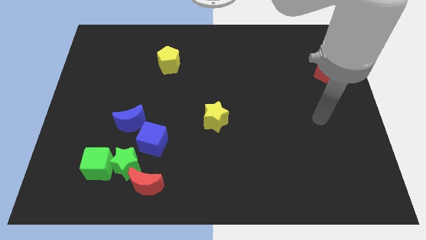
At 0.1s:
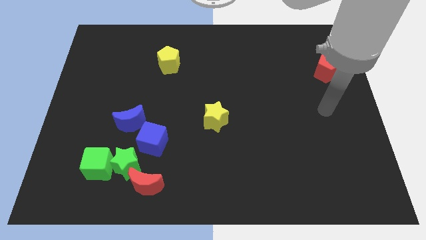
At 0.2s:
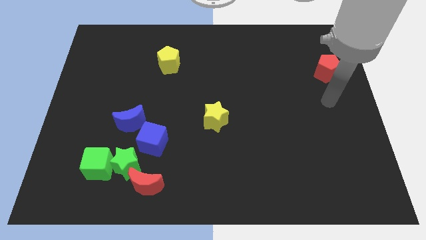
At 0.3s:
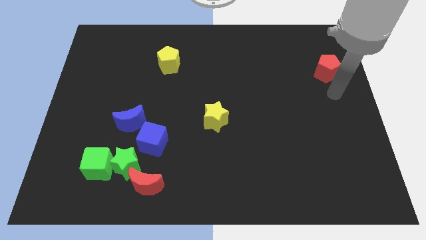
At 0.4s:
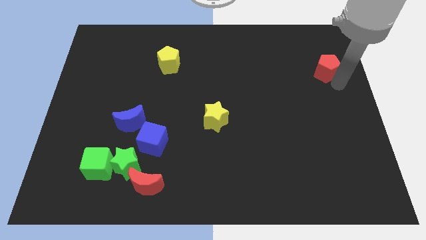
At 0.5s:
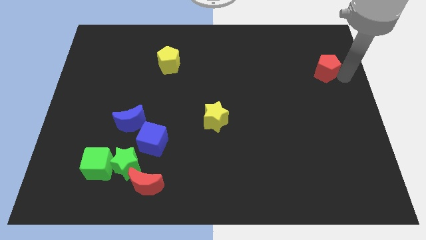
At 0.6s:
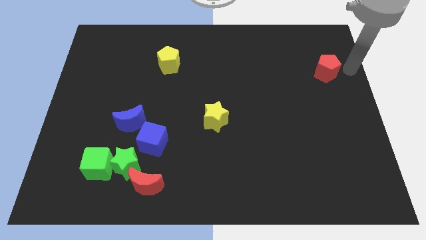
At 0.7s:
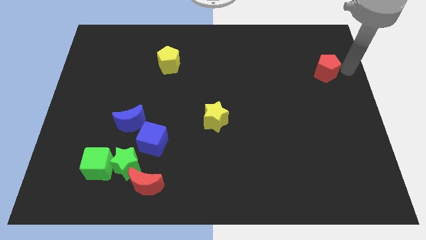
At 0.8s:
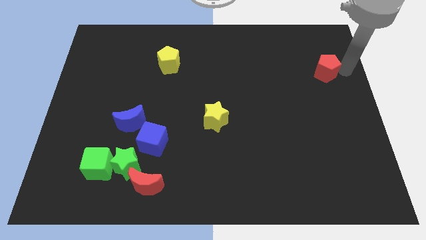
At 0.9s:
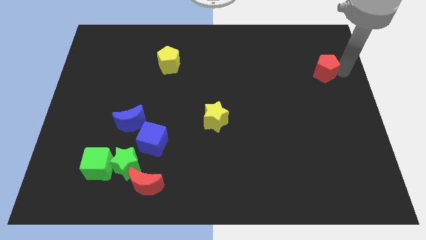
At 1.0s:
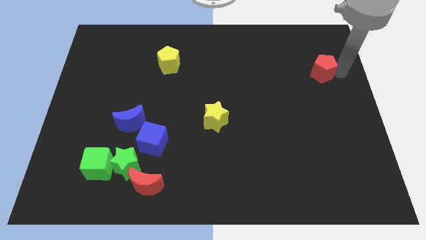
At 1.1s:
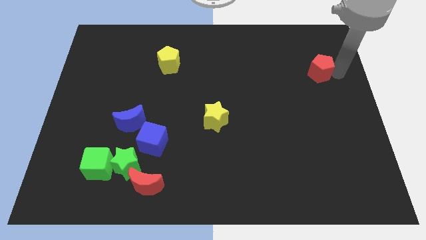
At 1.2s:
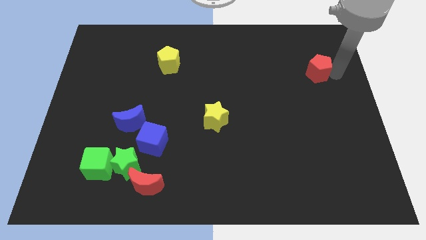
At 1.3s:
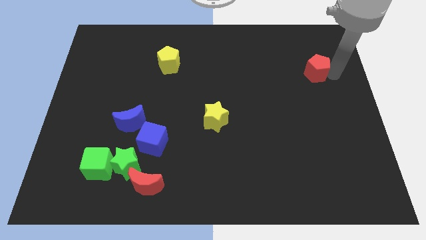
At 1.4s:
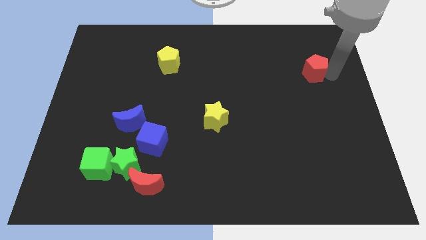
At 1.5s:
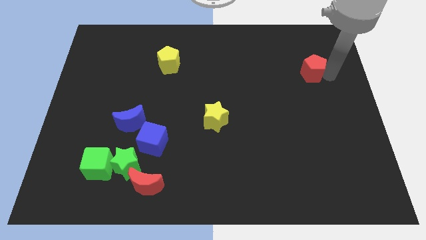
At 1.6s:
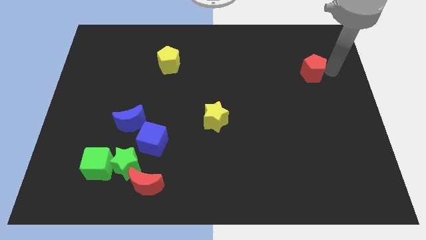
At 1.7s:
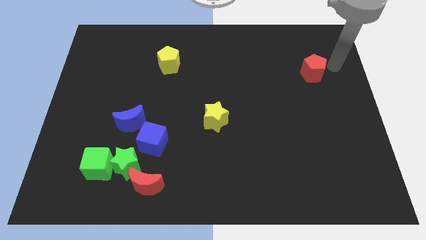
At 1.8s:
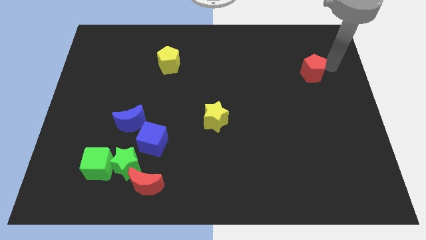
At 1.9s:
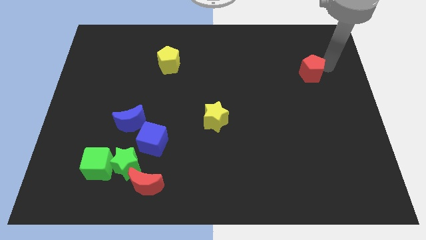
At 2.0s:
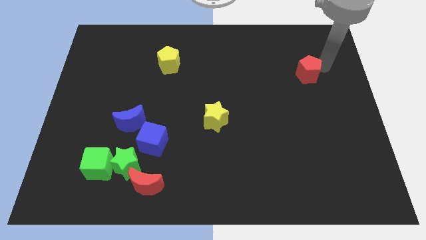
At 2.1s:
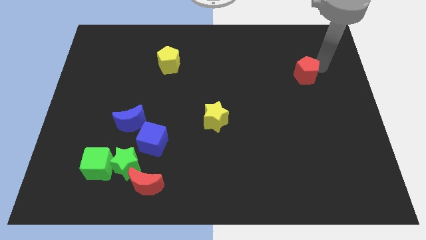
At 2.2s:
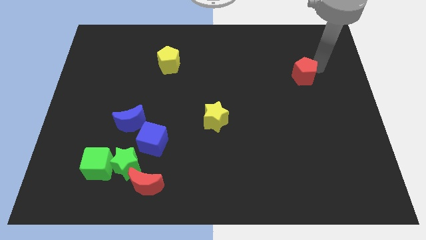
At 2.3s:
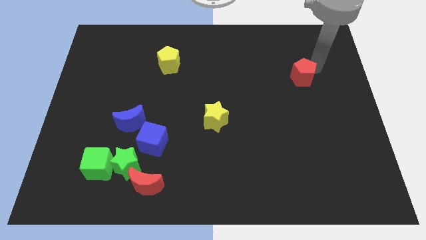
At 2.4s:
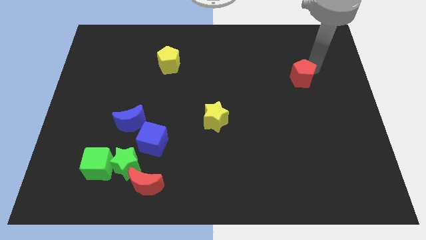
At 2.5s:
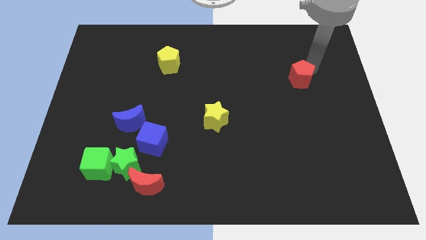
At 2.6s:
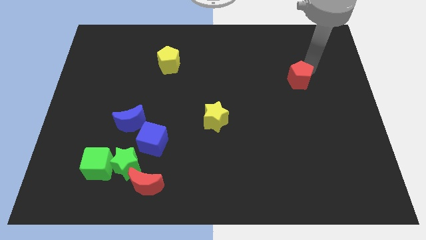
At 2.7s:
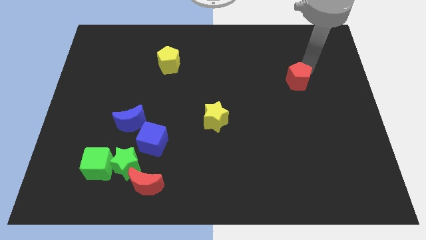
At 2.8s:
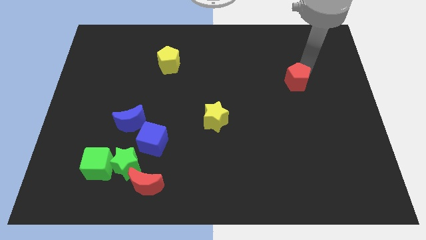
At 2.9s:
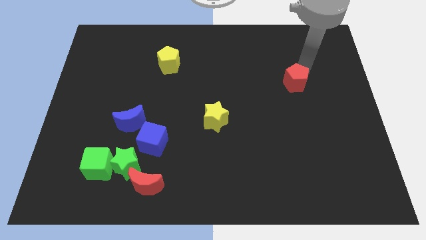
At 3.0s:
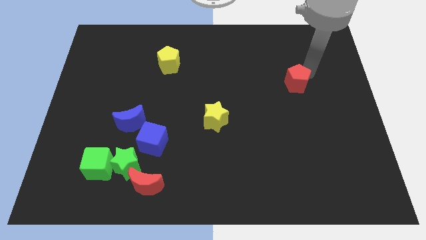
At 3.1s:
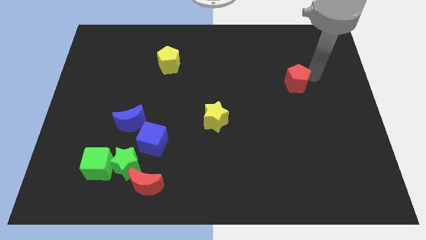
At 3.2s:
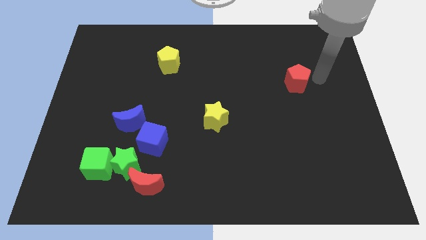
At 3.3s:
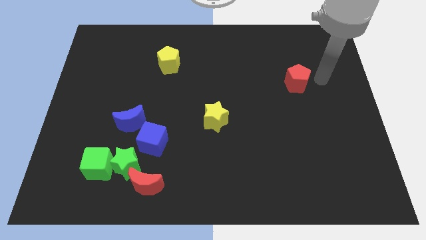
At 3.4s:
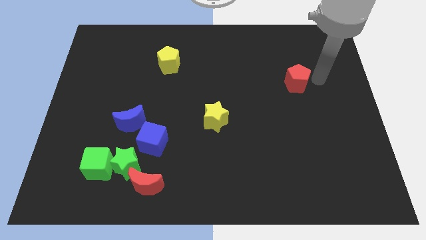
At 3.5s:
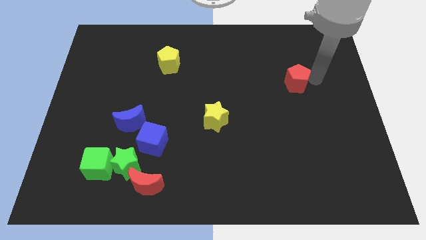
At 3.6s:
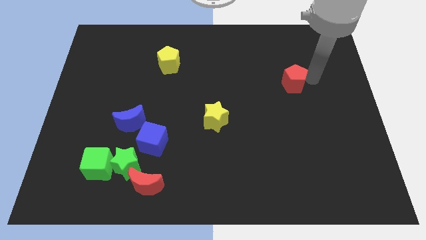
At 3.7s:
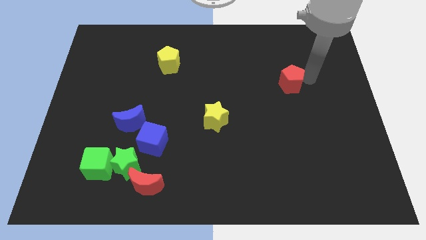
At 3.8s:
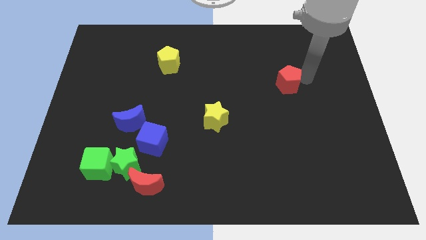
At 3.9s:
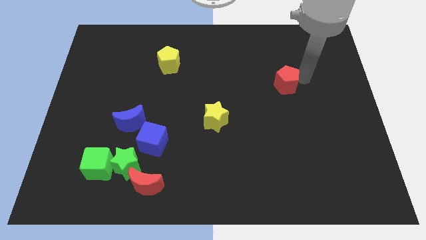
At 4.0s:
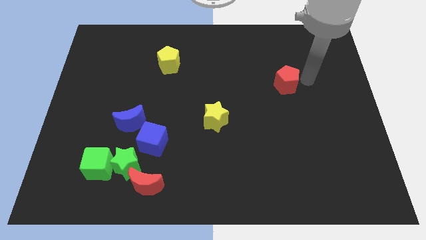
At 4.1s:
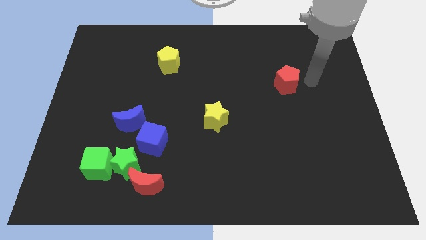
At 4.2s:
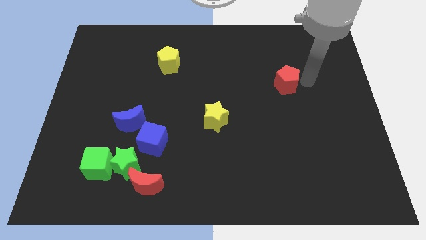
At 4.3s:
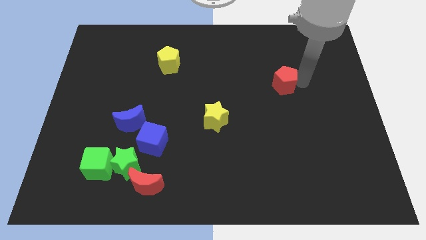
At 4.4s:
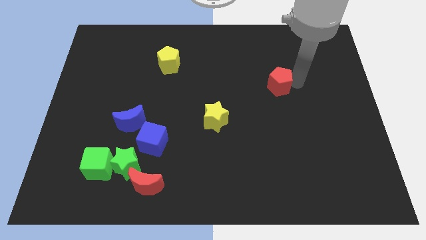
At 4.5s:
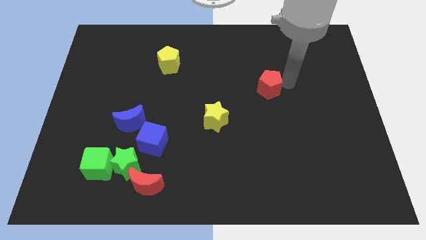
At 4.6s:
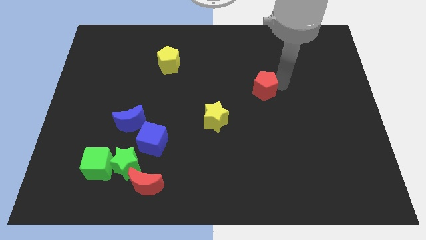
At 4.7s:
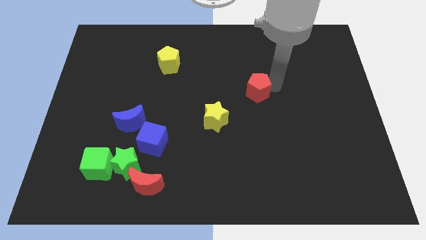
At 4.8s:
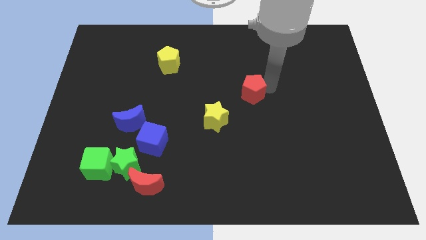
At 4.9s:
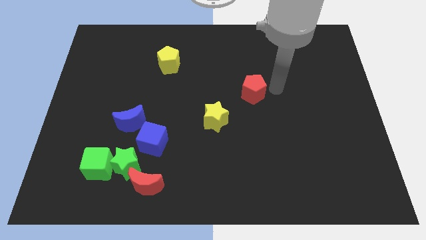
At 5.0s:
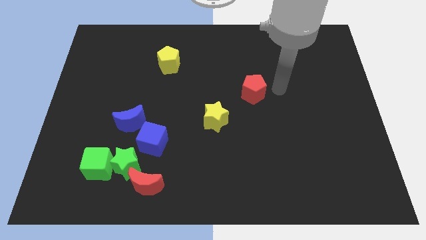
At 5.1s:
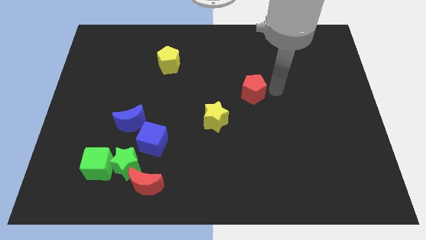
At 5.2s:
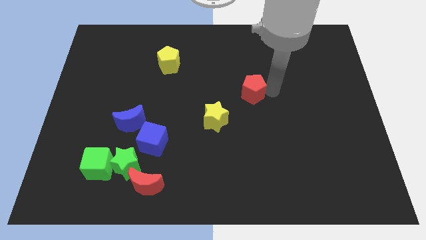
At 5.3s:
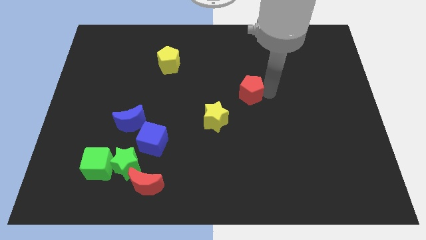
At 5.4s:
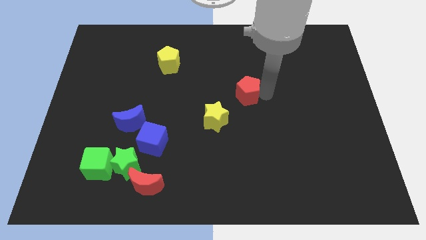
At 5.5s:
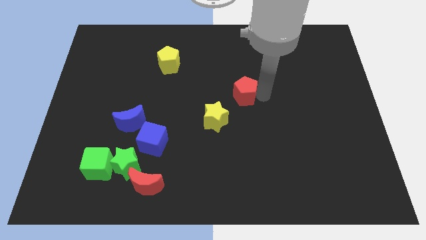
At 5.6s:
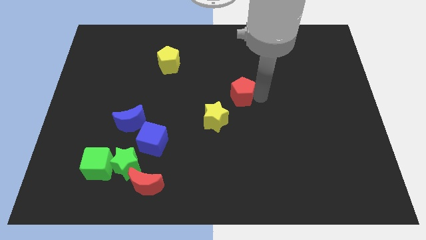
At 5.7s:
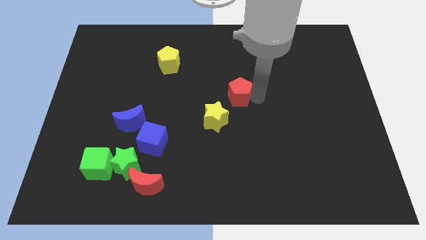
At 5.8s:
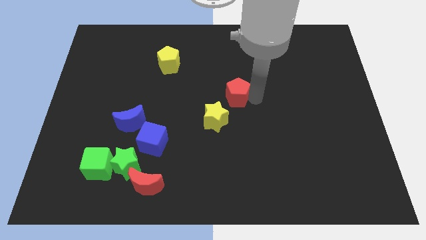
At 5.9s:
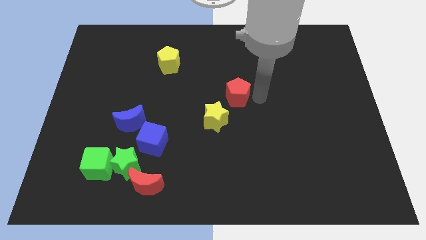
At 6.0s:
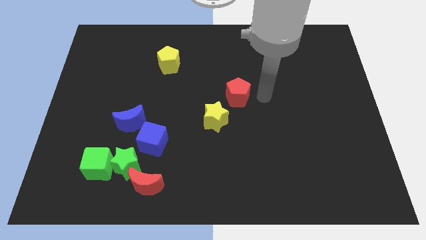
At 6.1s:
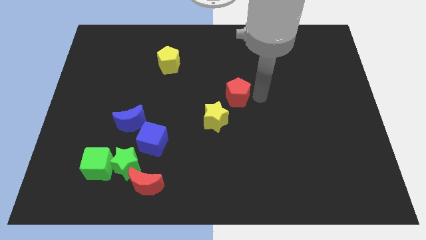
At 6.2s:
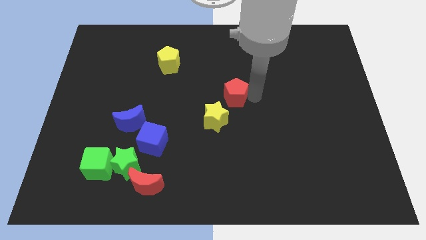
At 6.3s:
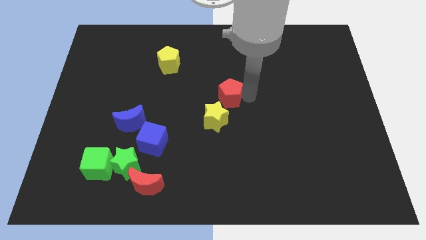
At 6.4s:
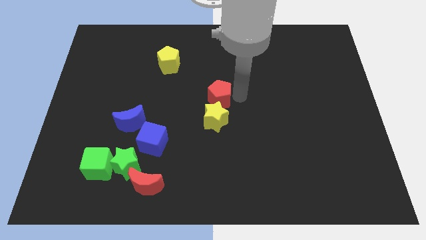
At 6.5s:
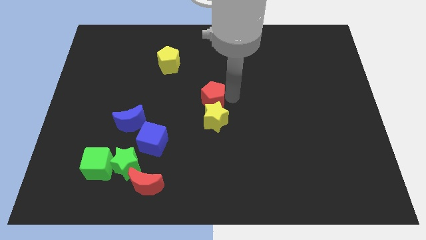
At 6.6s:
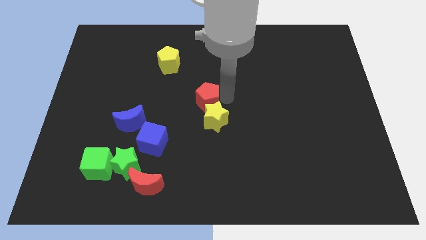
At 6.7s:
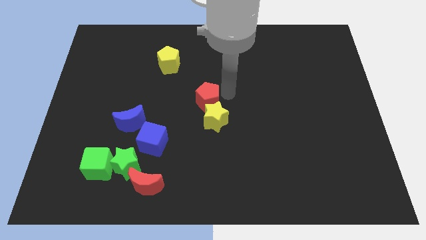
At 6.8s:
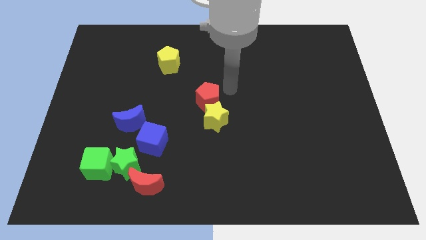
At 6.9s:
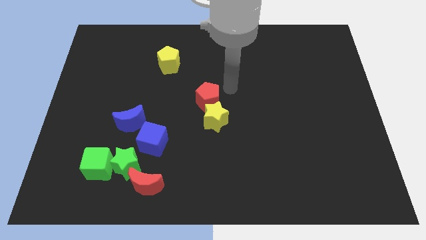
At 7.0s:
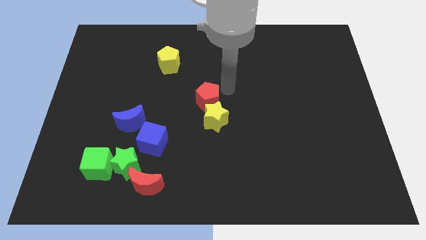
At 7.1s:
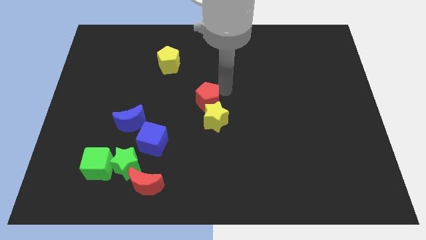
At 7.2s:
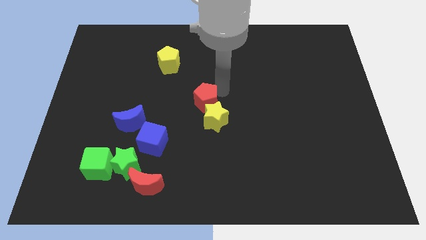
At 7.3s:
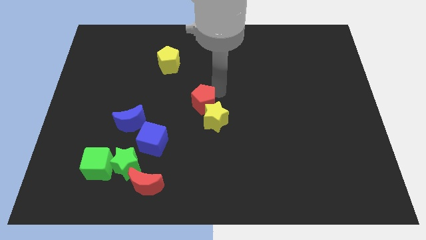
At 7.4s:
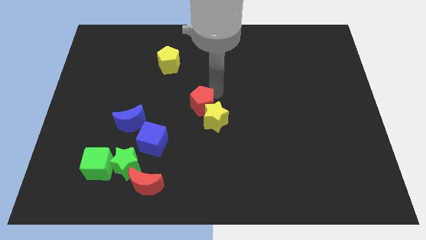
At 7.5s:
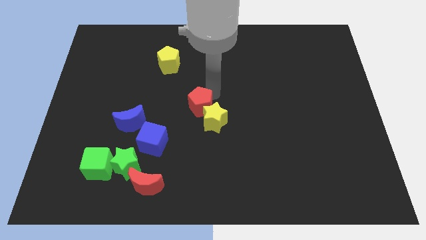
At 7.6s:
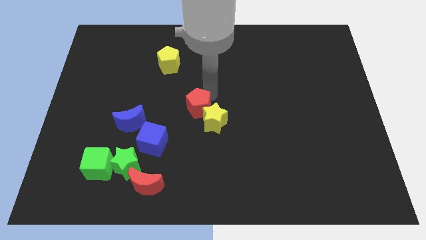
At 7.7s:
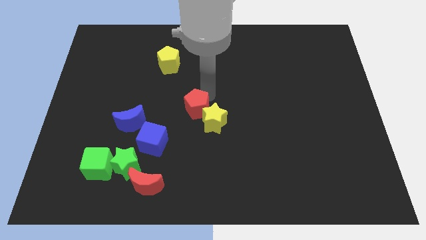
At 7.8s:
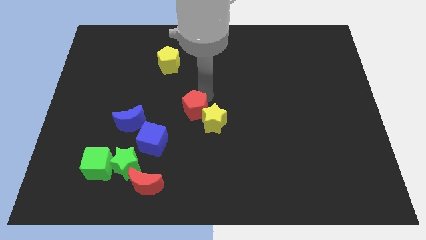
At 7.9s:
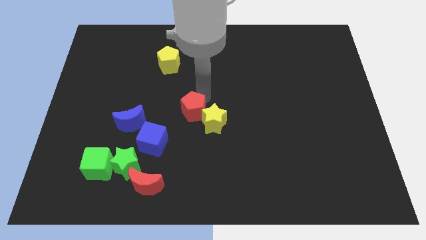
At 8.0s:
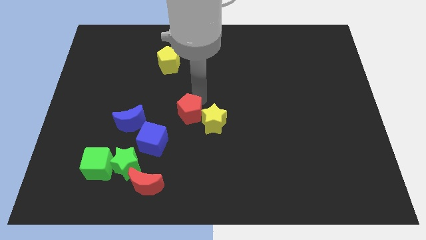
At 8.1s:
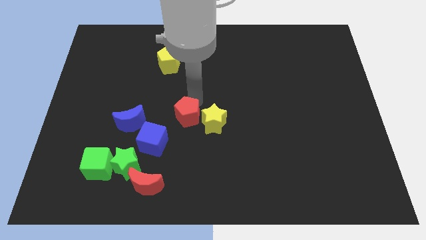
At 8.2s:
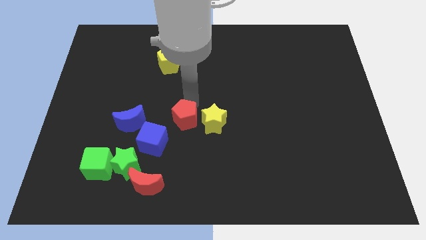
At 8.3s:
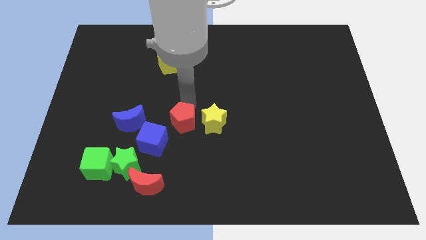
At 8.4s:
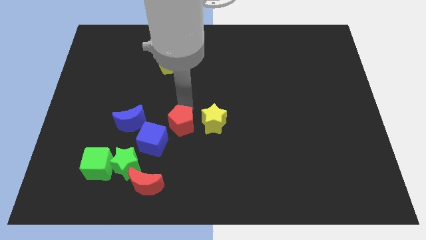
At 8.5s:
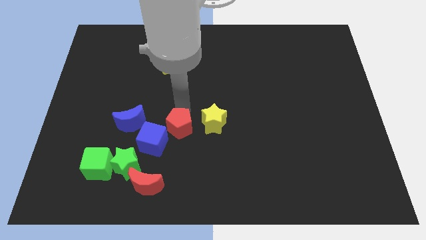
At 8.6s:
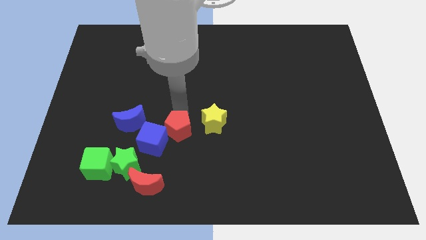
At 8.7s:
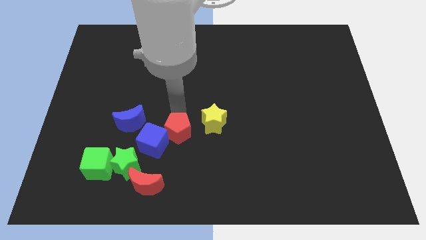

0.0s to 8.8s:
put the red pentagon towards the blue cube
